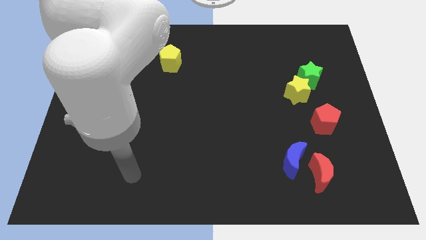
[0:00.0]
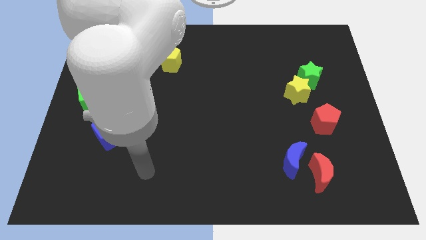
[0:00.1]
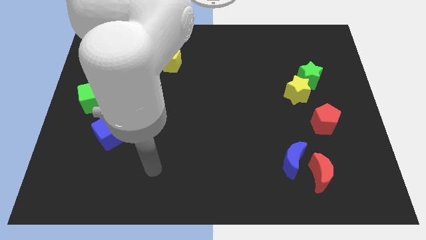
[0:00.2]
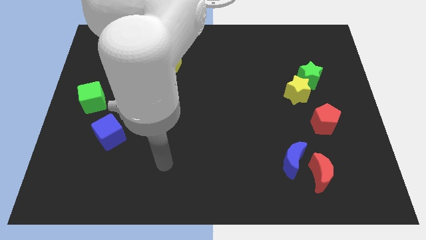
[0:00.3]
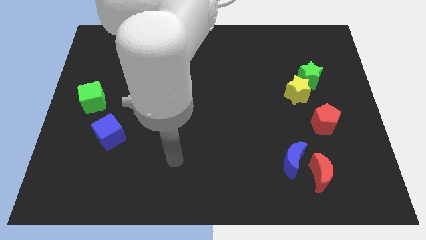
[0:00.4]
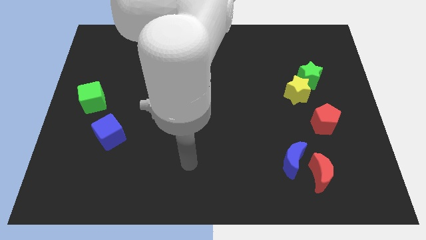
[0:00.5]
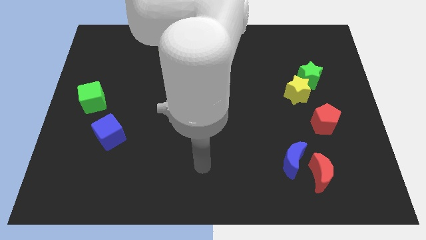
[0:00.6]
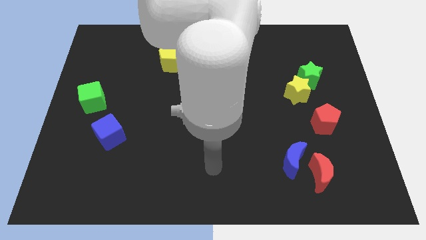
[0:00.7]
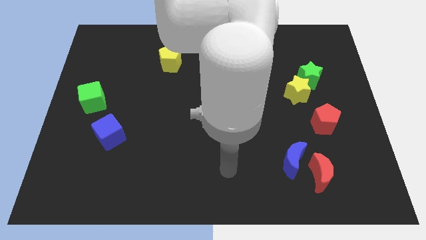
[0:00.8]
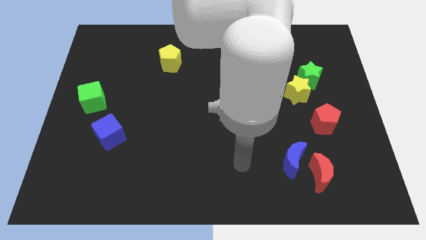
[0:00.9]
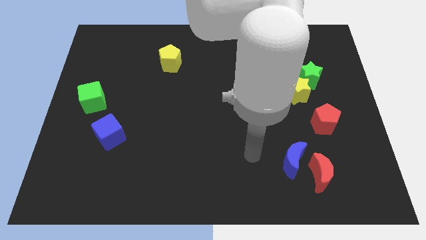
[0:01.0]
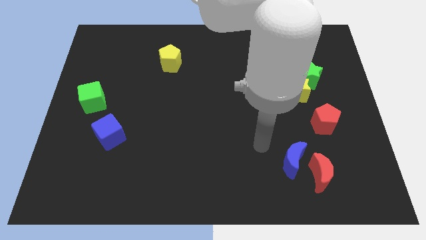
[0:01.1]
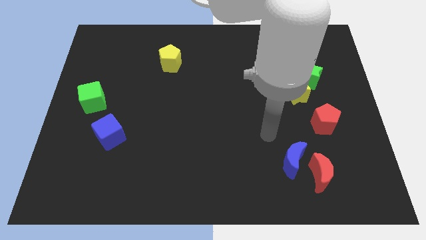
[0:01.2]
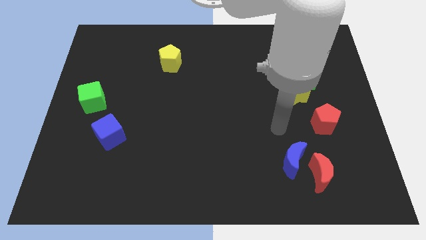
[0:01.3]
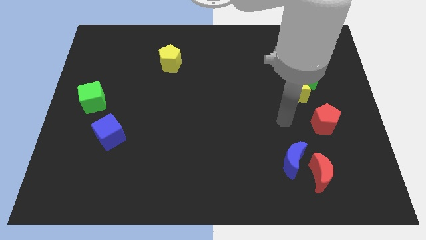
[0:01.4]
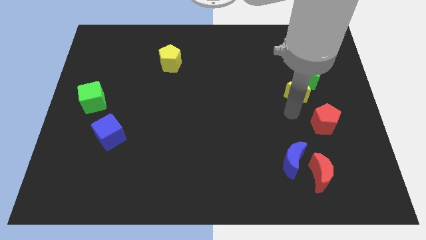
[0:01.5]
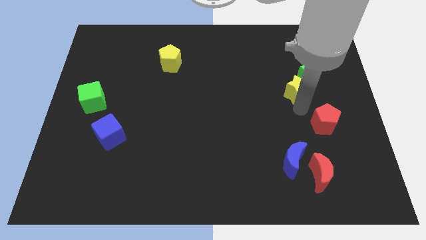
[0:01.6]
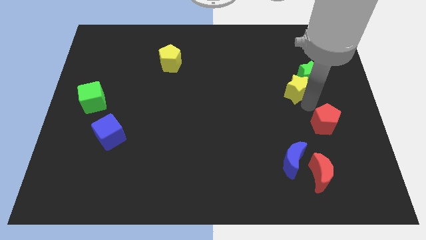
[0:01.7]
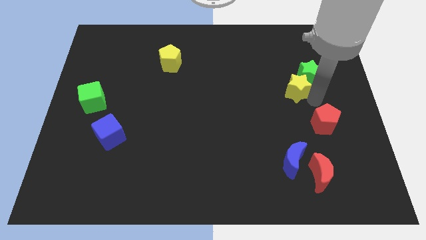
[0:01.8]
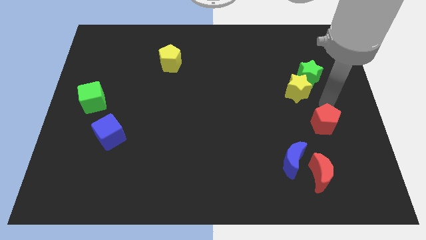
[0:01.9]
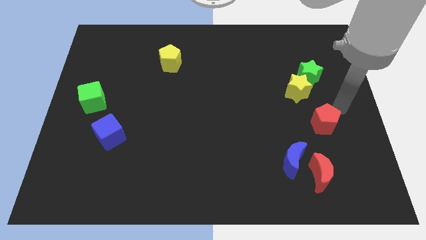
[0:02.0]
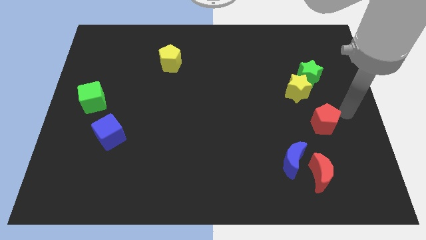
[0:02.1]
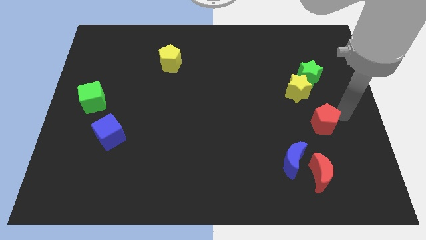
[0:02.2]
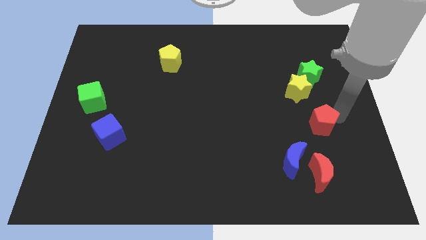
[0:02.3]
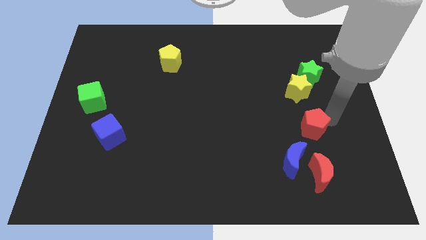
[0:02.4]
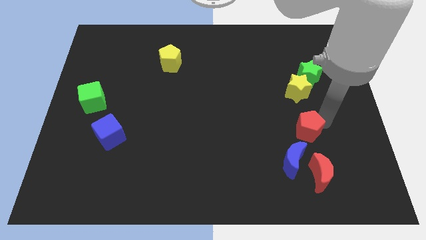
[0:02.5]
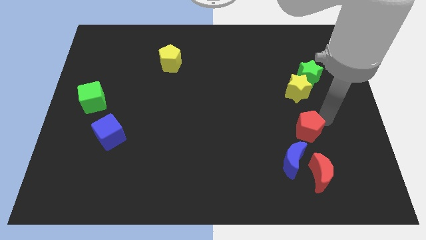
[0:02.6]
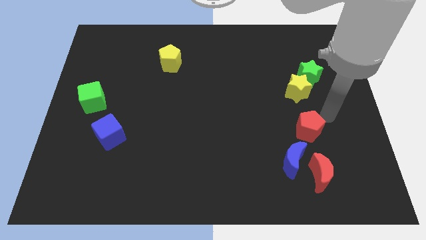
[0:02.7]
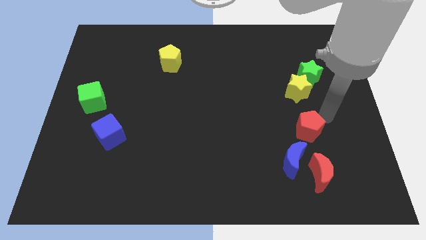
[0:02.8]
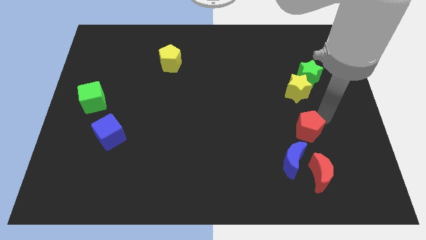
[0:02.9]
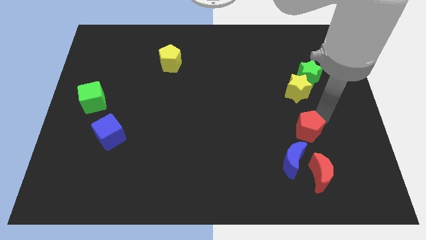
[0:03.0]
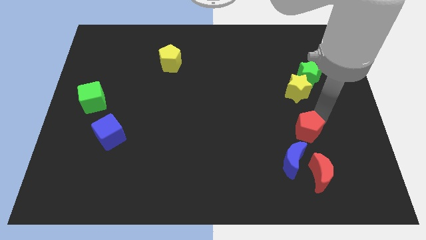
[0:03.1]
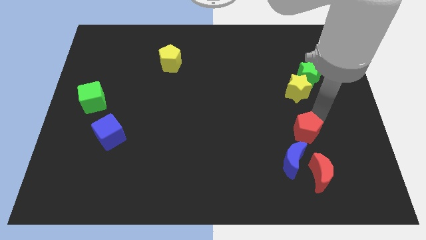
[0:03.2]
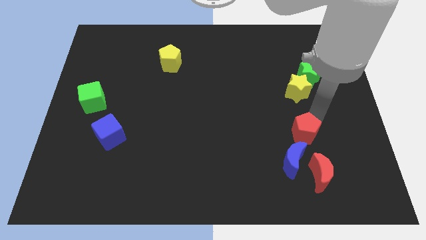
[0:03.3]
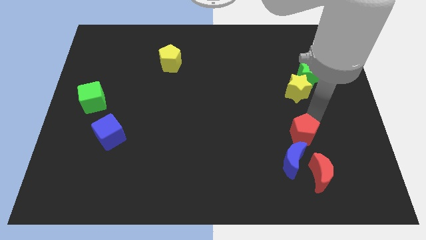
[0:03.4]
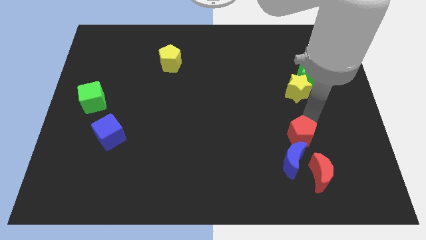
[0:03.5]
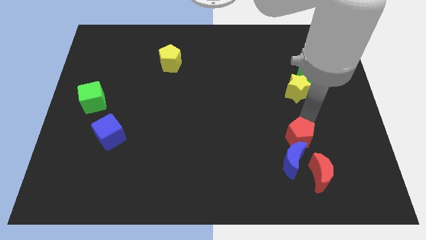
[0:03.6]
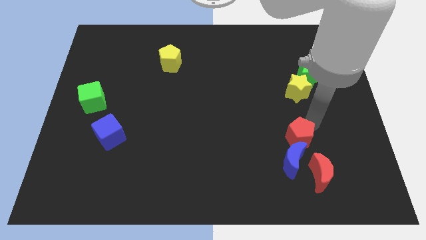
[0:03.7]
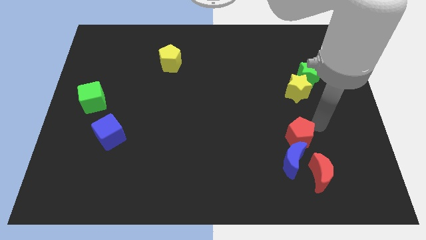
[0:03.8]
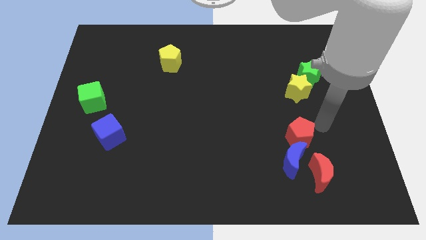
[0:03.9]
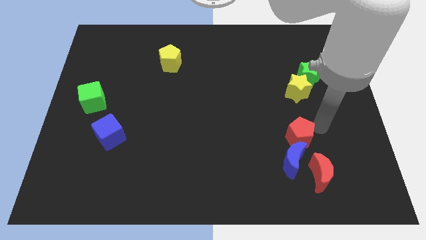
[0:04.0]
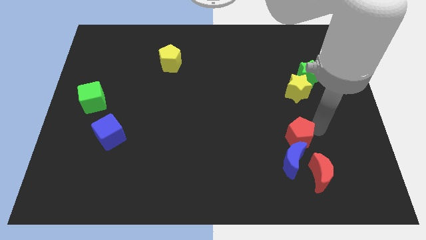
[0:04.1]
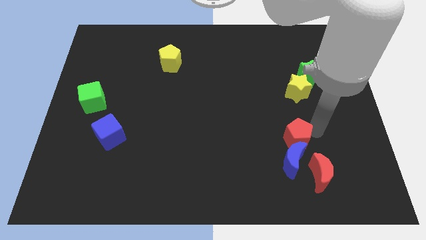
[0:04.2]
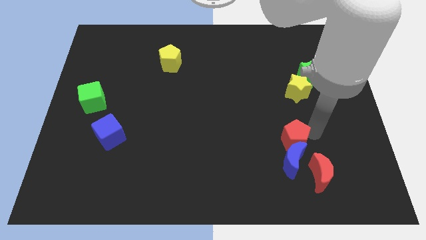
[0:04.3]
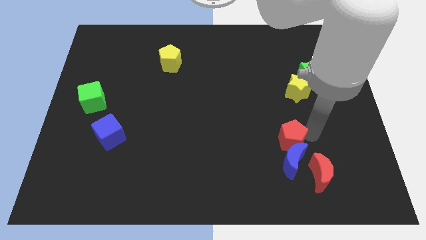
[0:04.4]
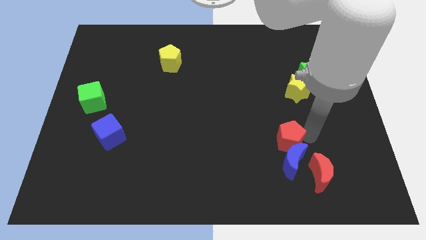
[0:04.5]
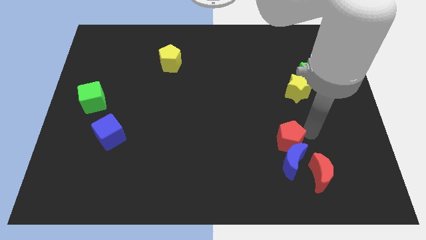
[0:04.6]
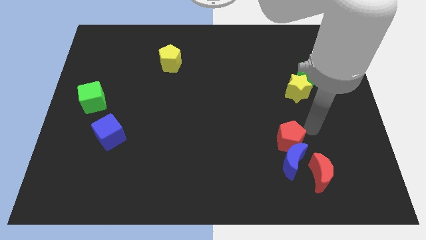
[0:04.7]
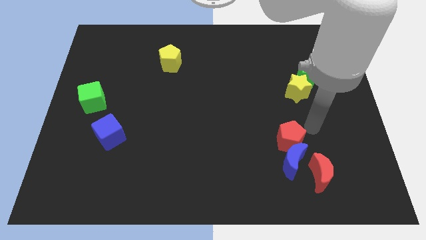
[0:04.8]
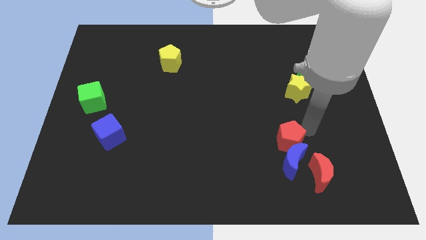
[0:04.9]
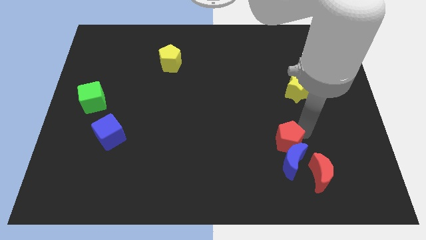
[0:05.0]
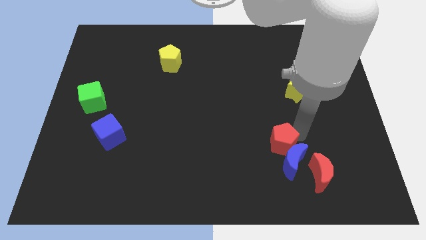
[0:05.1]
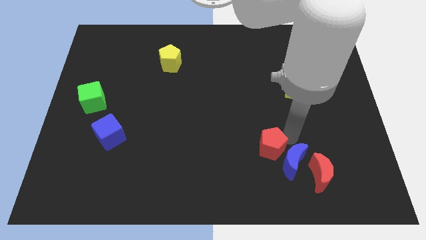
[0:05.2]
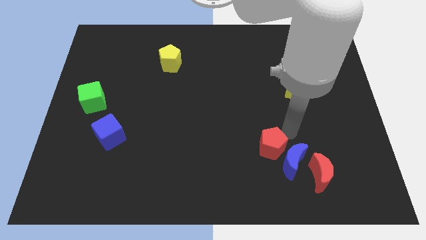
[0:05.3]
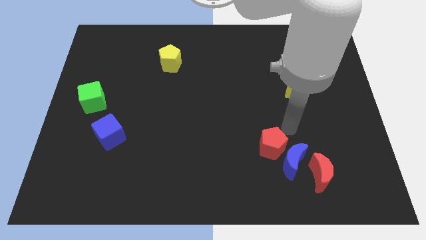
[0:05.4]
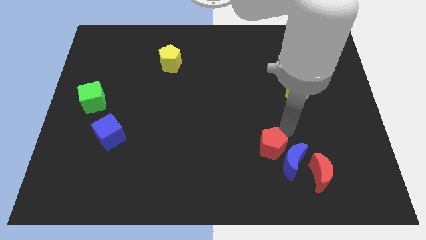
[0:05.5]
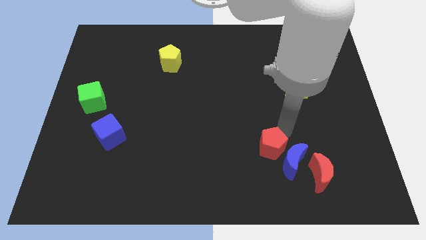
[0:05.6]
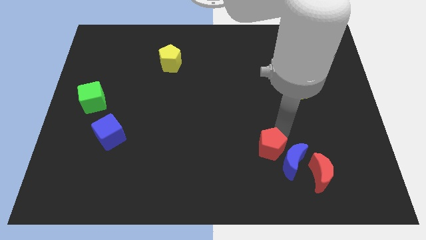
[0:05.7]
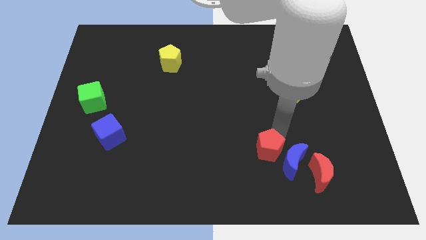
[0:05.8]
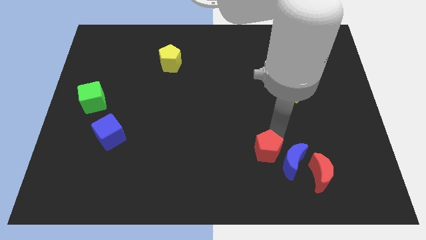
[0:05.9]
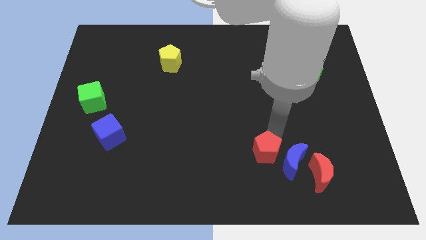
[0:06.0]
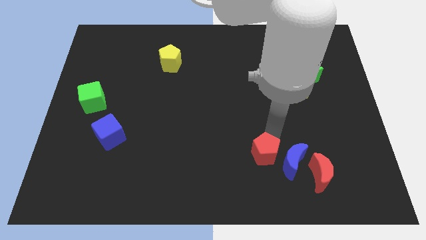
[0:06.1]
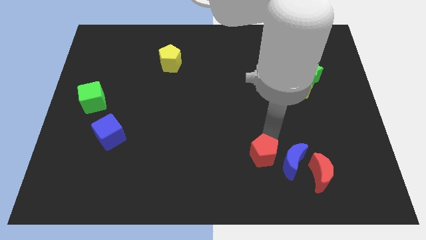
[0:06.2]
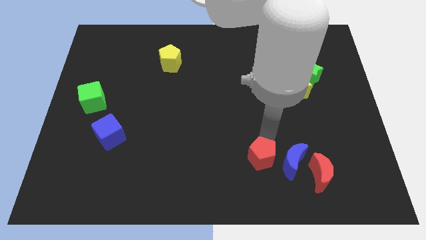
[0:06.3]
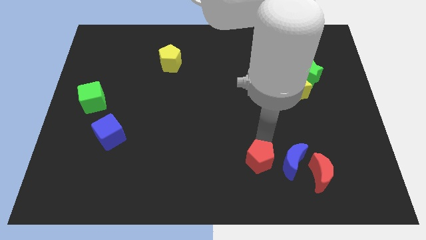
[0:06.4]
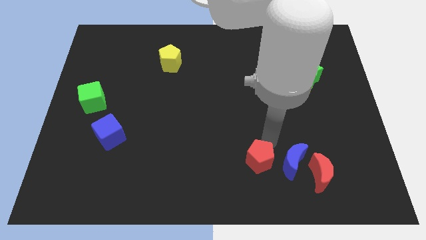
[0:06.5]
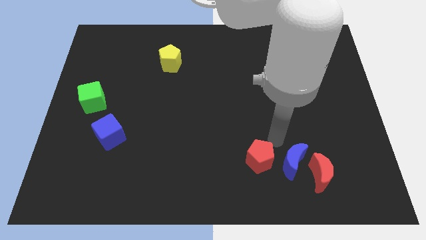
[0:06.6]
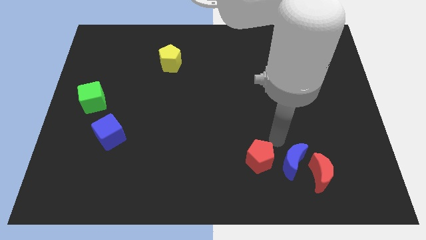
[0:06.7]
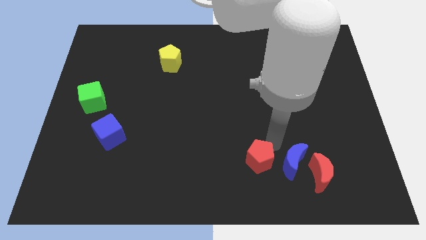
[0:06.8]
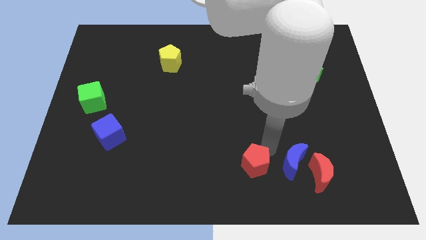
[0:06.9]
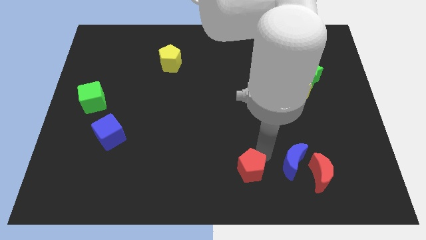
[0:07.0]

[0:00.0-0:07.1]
move the red pentagon to the bottom side
